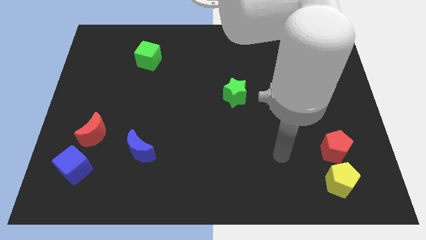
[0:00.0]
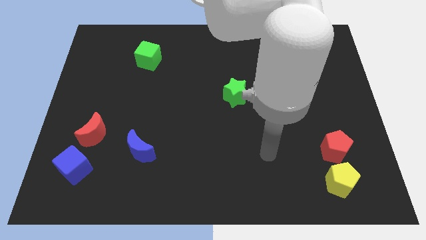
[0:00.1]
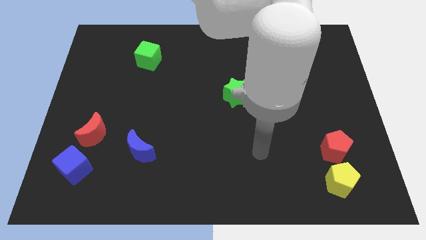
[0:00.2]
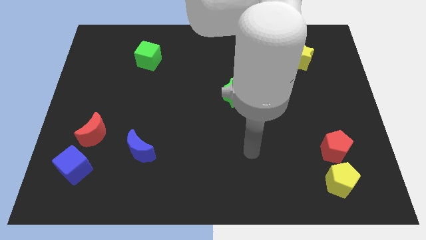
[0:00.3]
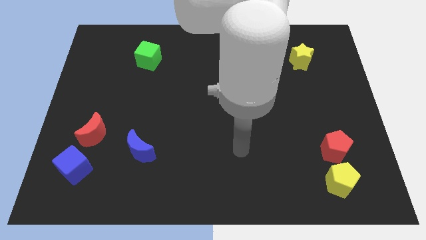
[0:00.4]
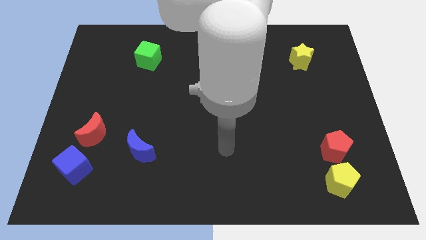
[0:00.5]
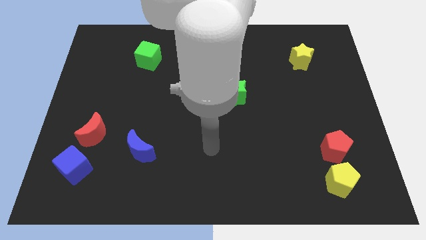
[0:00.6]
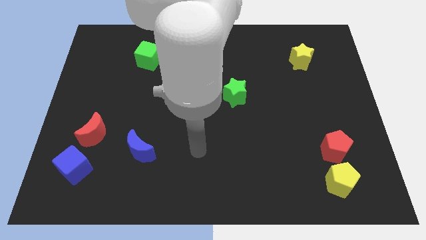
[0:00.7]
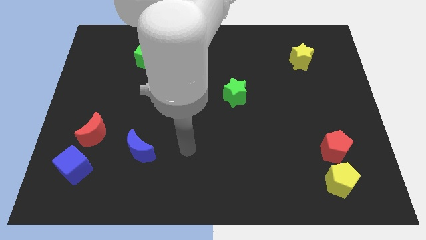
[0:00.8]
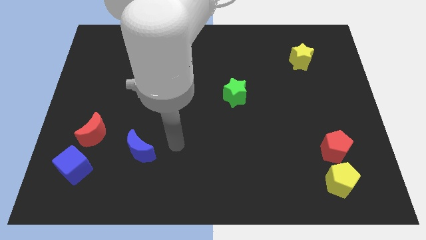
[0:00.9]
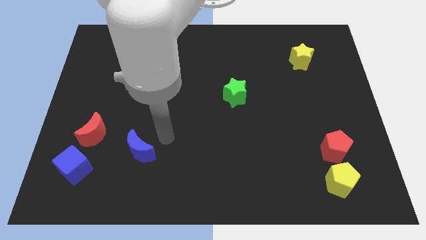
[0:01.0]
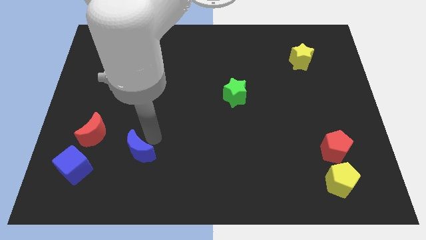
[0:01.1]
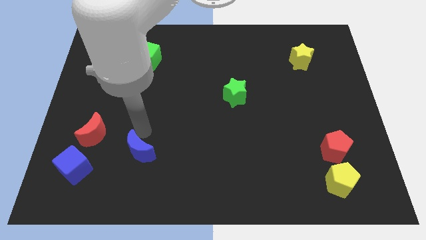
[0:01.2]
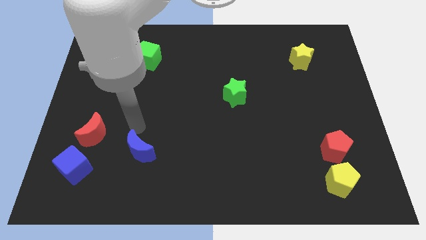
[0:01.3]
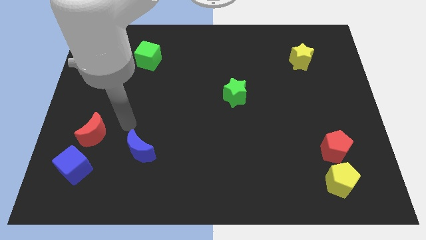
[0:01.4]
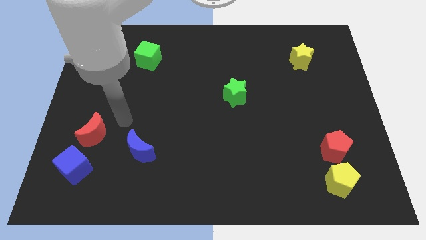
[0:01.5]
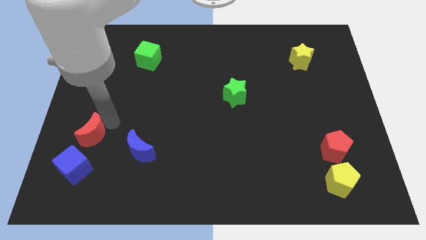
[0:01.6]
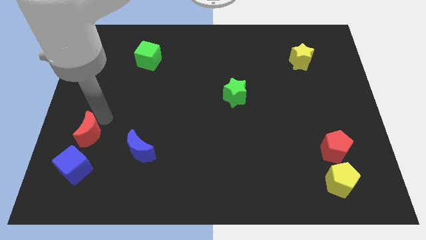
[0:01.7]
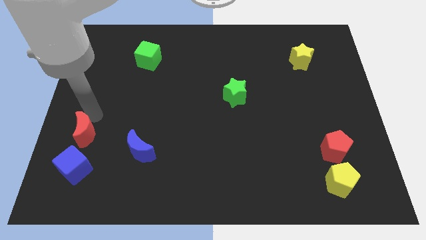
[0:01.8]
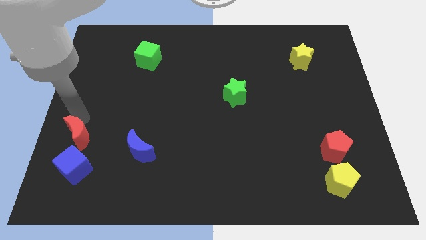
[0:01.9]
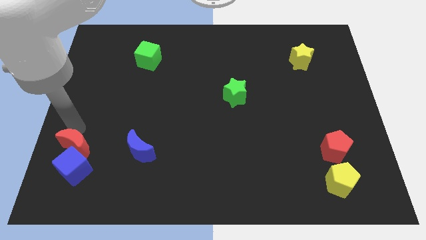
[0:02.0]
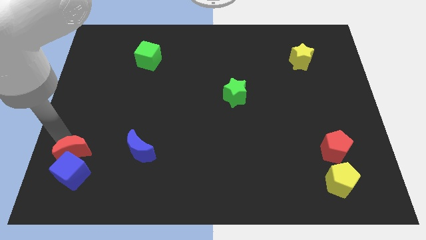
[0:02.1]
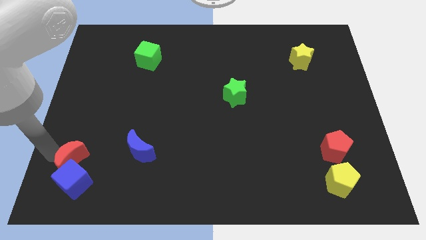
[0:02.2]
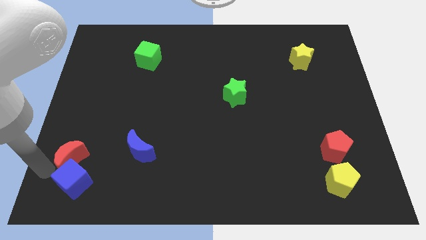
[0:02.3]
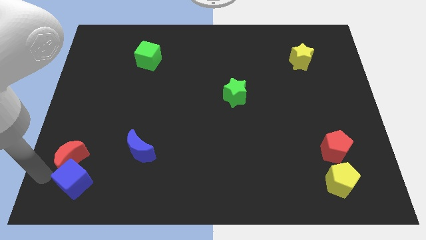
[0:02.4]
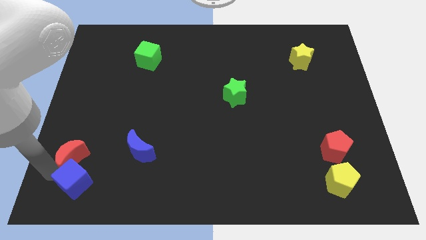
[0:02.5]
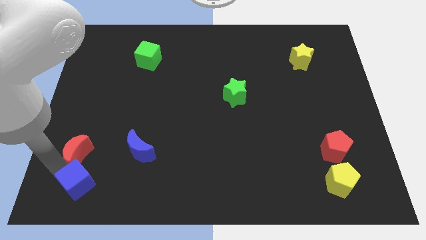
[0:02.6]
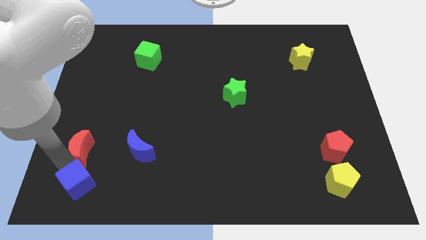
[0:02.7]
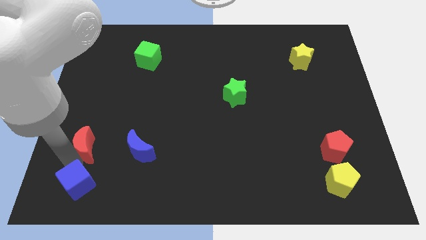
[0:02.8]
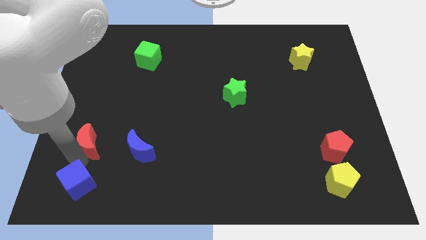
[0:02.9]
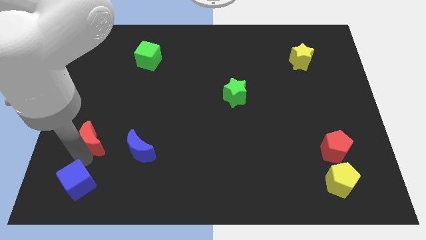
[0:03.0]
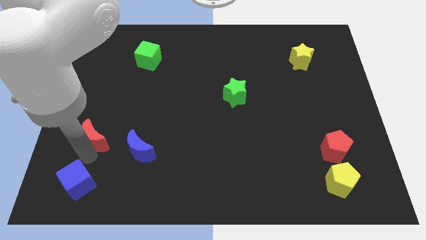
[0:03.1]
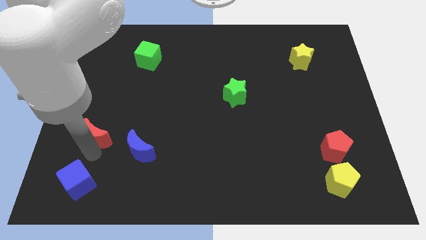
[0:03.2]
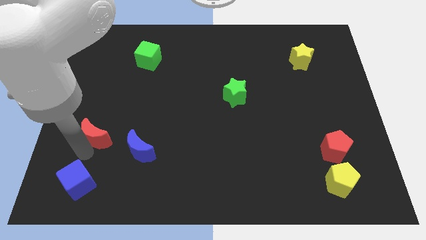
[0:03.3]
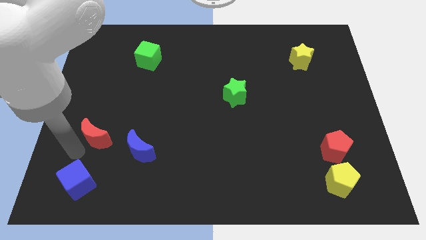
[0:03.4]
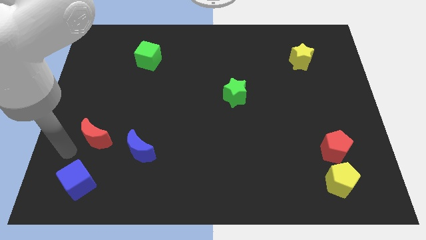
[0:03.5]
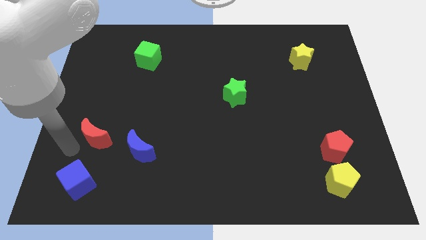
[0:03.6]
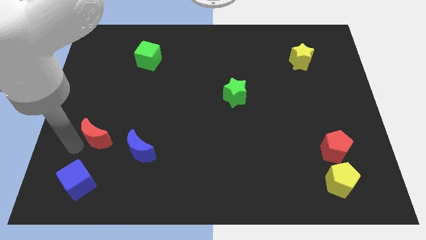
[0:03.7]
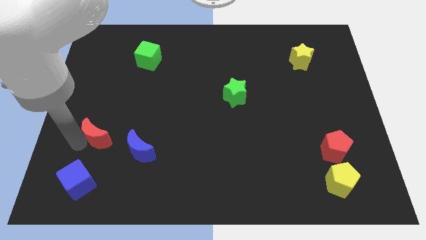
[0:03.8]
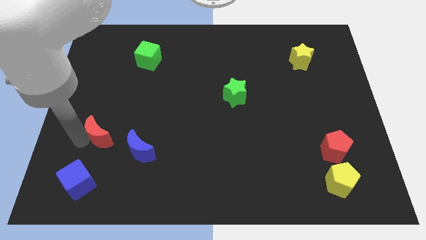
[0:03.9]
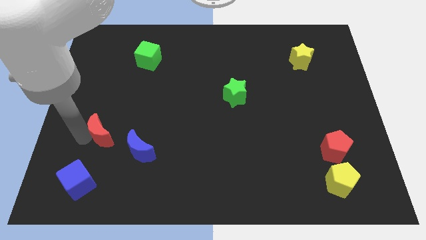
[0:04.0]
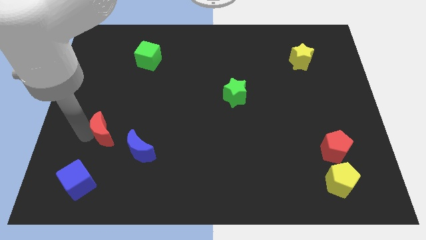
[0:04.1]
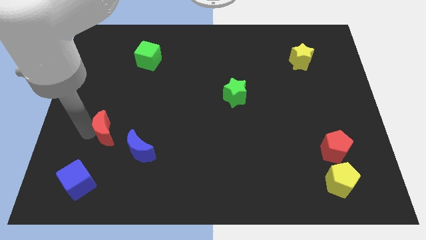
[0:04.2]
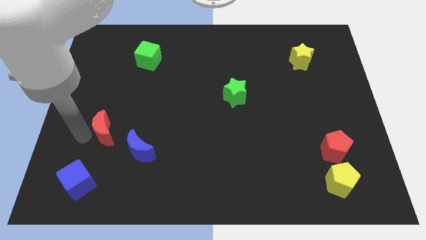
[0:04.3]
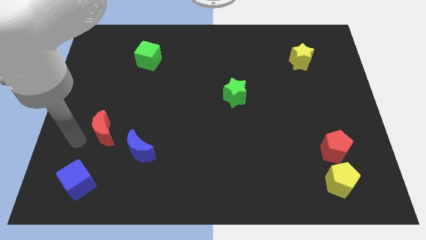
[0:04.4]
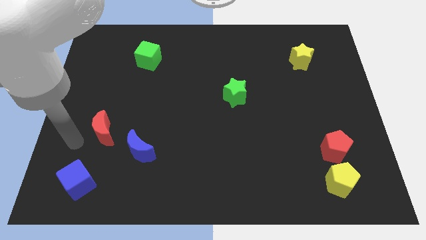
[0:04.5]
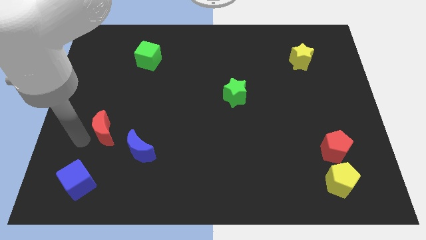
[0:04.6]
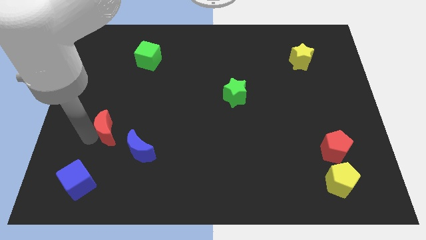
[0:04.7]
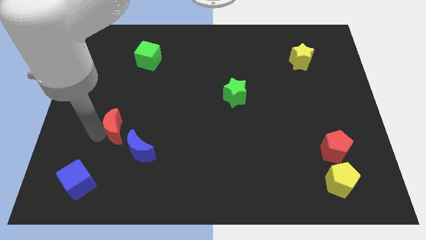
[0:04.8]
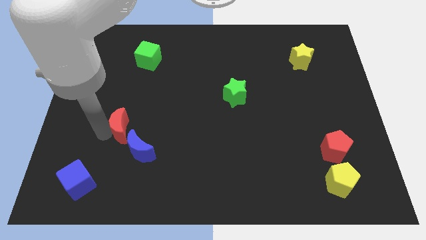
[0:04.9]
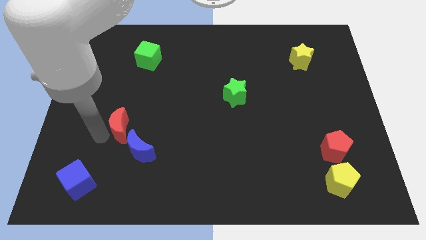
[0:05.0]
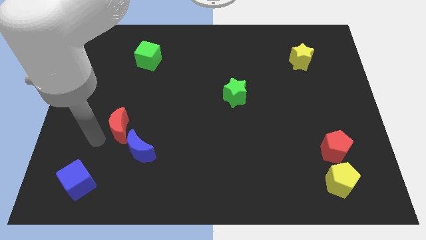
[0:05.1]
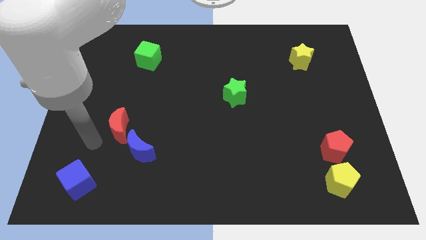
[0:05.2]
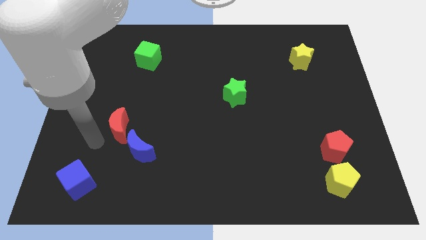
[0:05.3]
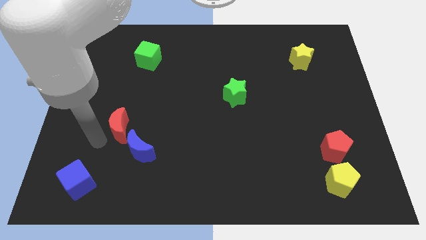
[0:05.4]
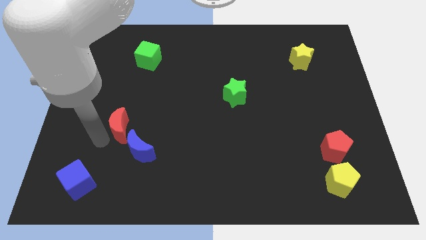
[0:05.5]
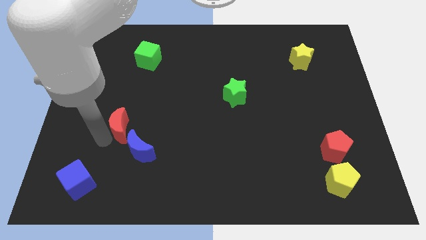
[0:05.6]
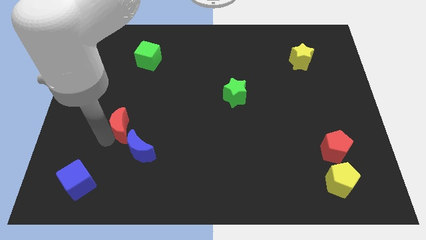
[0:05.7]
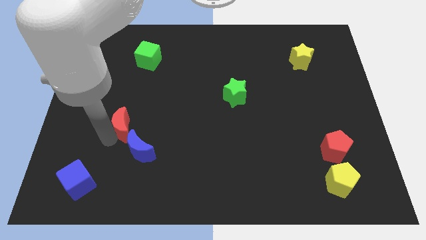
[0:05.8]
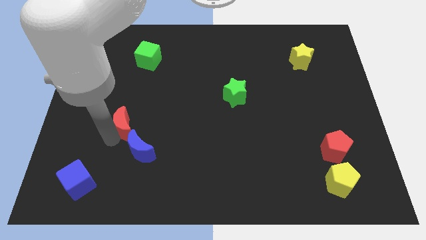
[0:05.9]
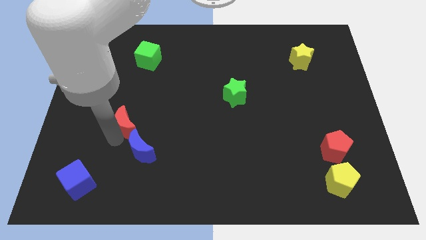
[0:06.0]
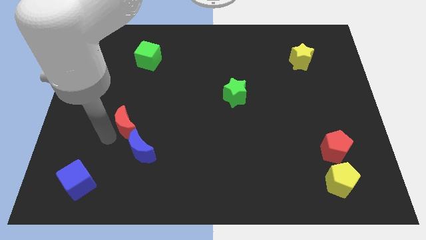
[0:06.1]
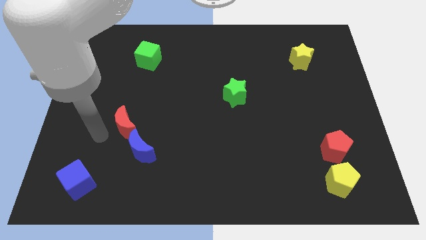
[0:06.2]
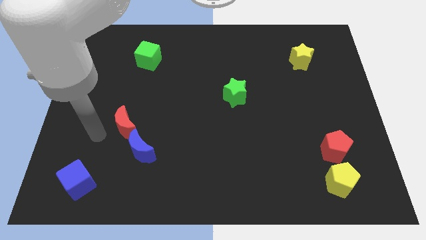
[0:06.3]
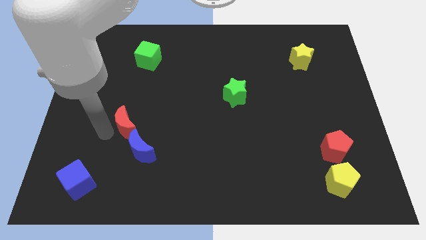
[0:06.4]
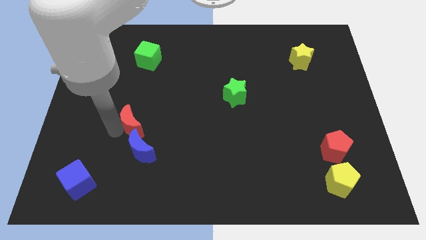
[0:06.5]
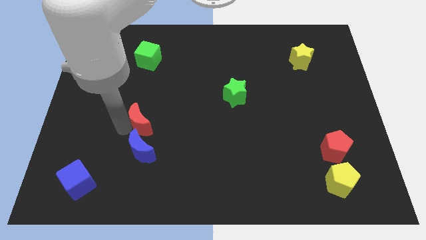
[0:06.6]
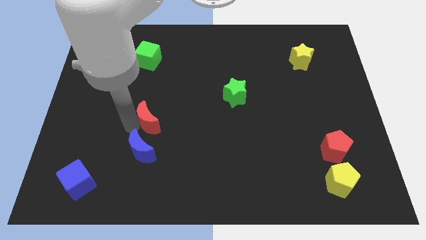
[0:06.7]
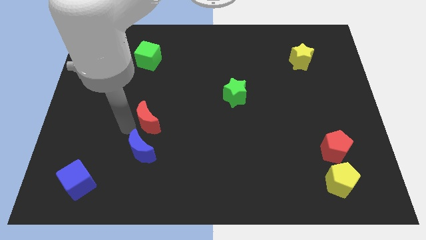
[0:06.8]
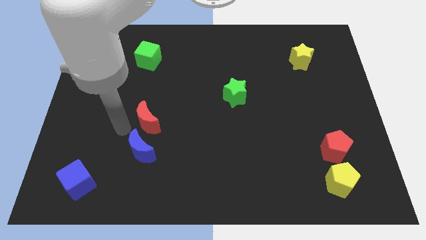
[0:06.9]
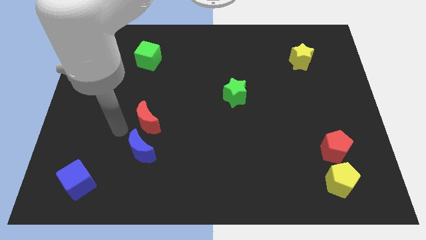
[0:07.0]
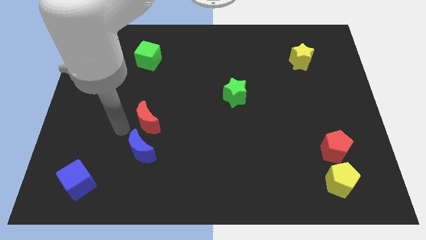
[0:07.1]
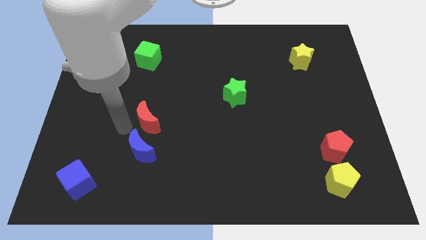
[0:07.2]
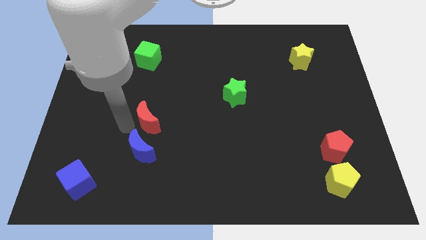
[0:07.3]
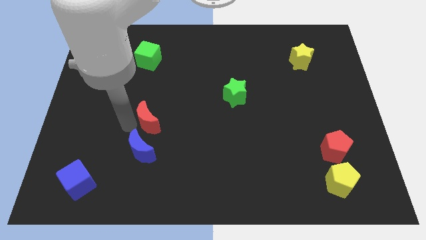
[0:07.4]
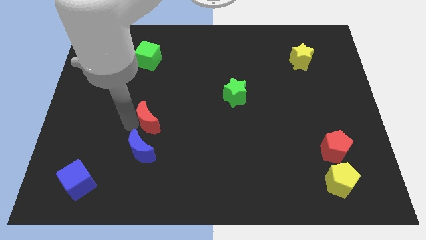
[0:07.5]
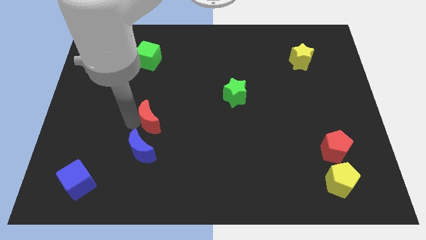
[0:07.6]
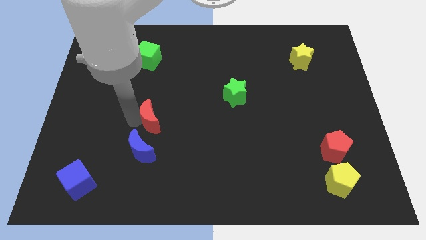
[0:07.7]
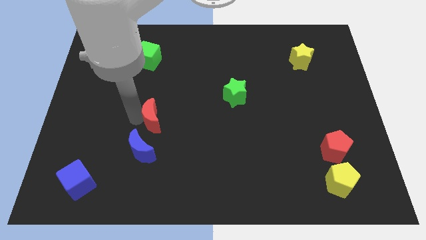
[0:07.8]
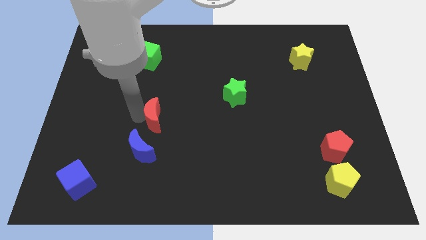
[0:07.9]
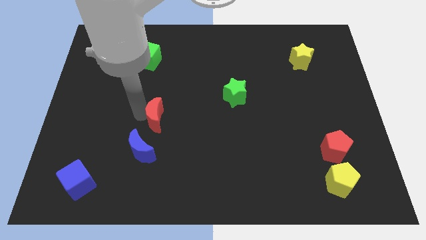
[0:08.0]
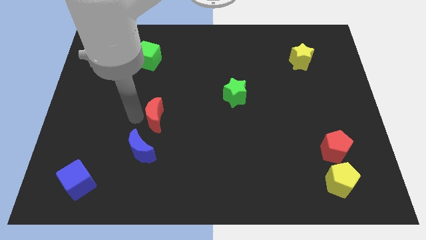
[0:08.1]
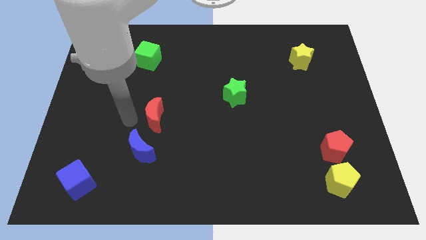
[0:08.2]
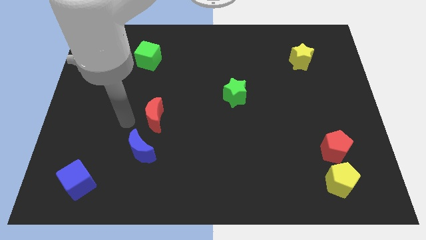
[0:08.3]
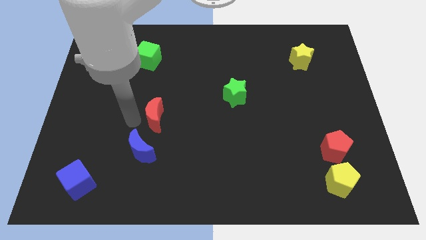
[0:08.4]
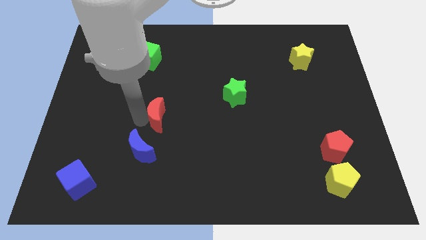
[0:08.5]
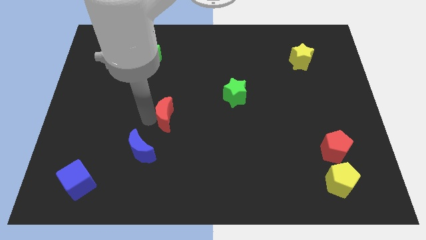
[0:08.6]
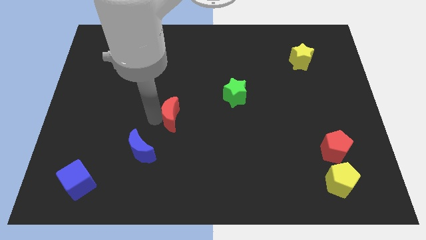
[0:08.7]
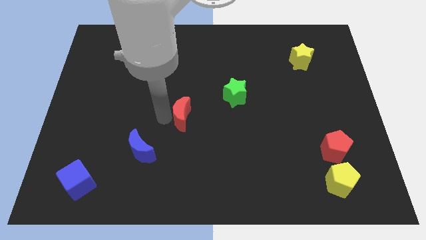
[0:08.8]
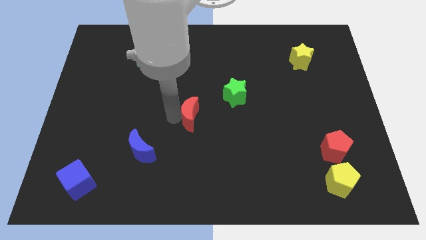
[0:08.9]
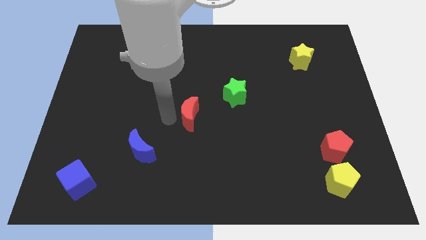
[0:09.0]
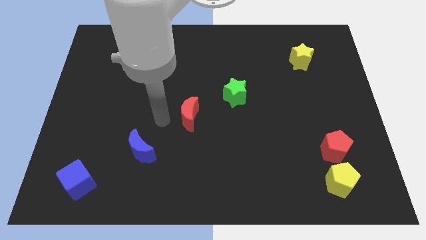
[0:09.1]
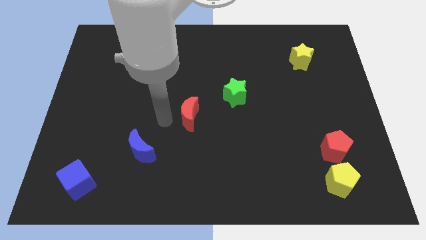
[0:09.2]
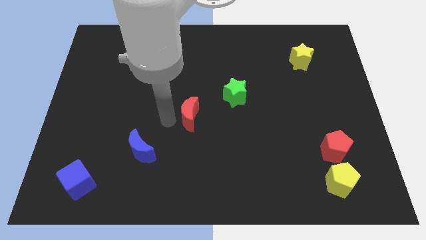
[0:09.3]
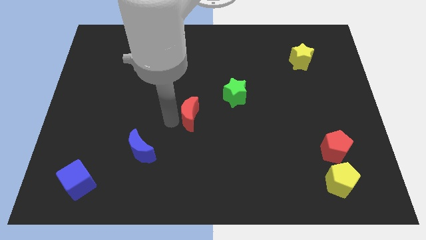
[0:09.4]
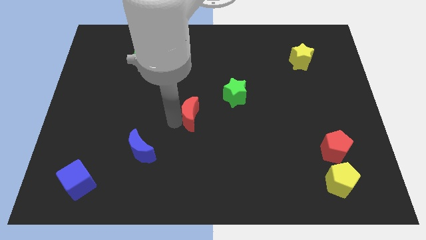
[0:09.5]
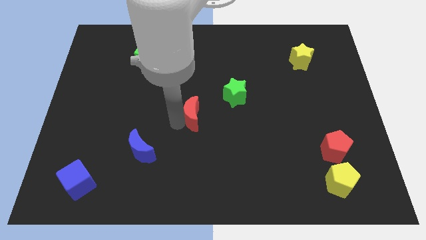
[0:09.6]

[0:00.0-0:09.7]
move the red moon diagonally down and to the left of the green star
